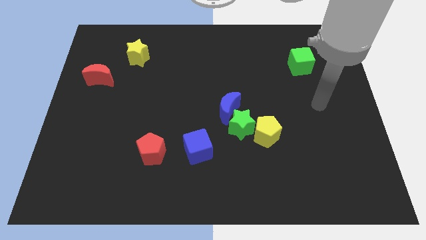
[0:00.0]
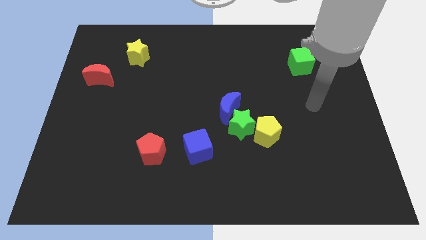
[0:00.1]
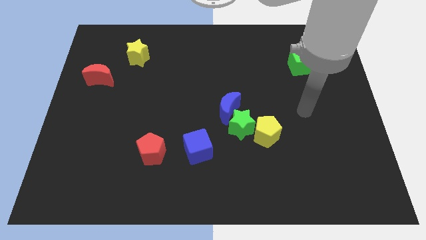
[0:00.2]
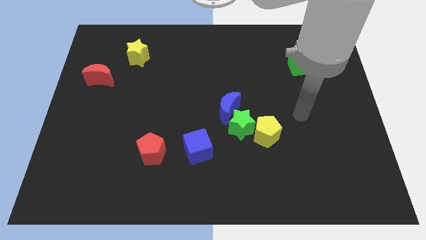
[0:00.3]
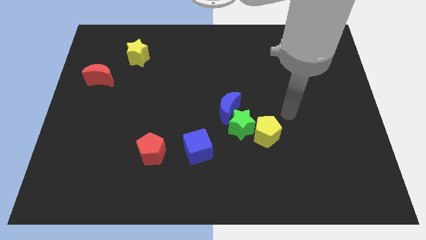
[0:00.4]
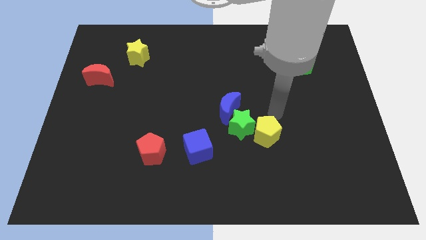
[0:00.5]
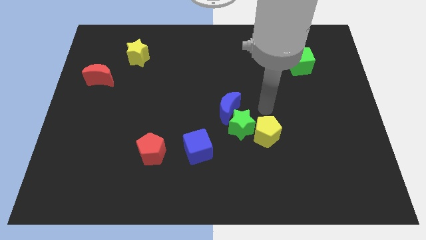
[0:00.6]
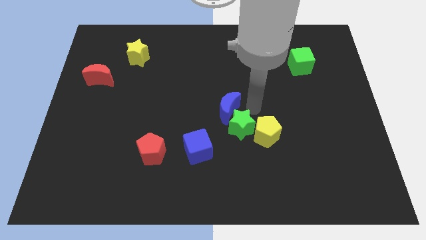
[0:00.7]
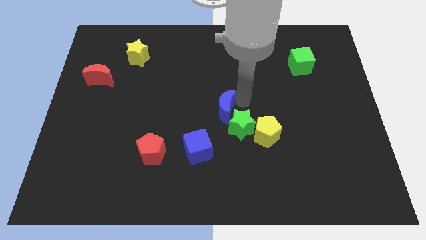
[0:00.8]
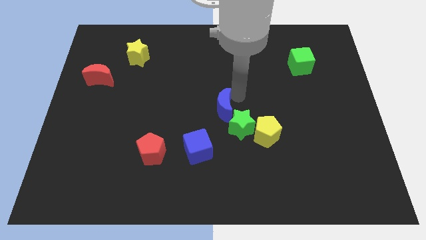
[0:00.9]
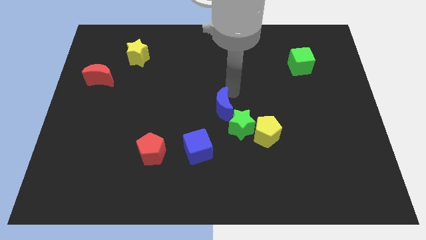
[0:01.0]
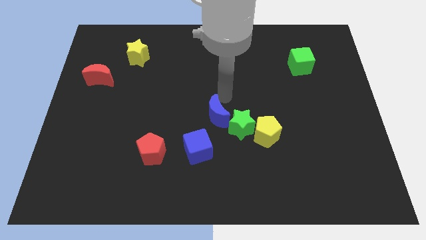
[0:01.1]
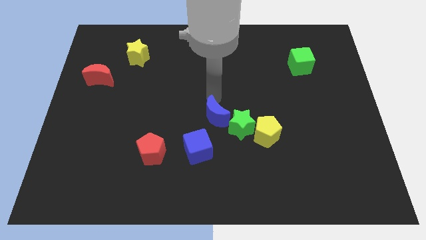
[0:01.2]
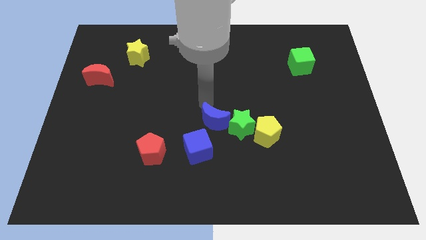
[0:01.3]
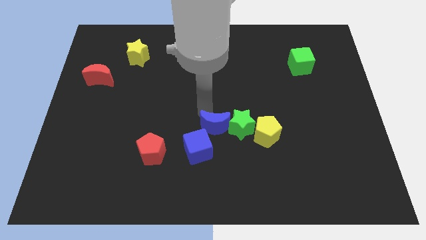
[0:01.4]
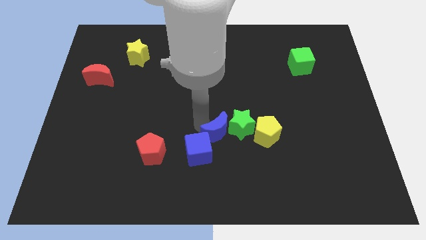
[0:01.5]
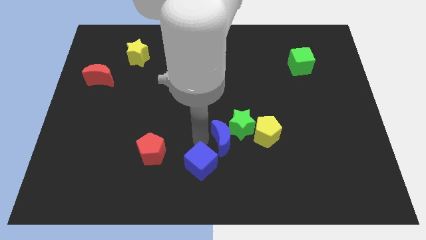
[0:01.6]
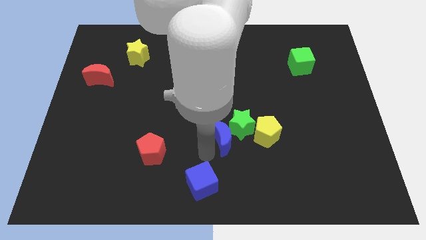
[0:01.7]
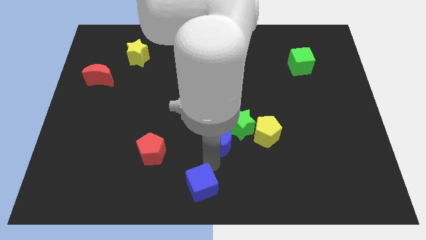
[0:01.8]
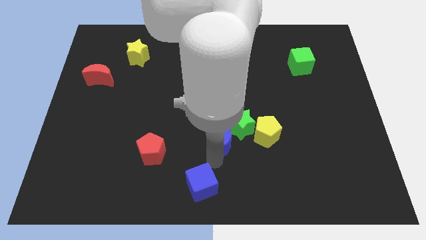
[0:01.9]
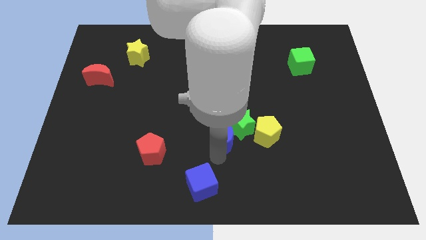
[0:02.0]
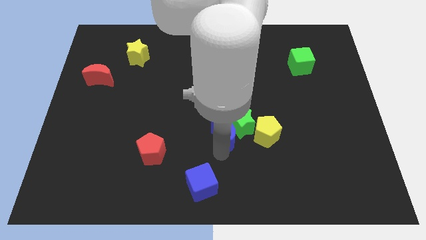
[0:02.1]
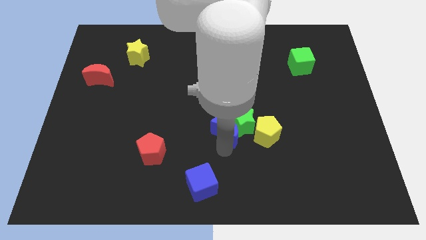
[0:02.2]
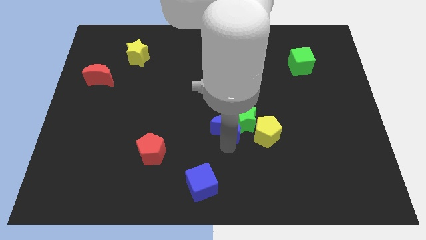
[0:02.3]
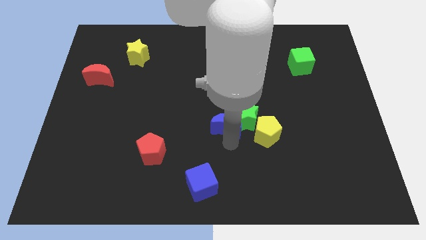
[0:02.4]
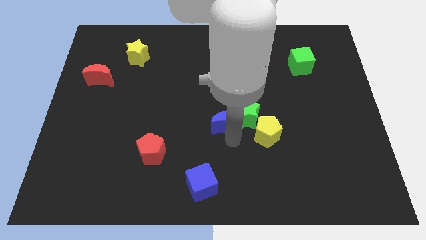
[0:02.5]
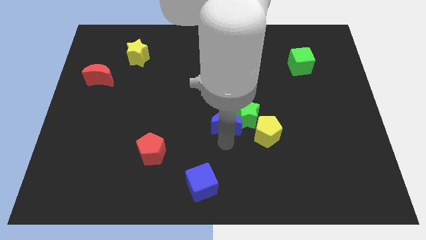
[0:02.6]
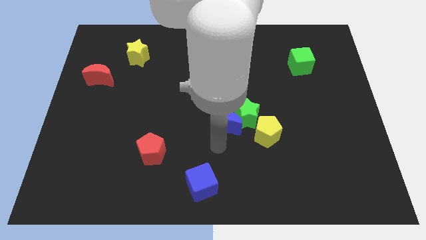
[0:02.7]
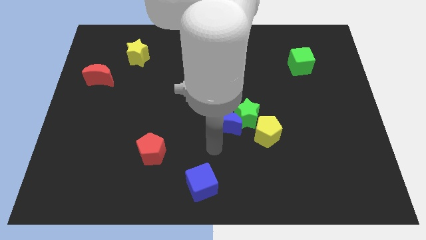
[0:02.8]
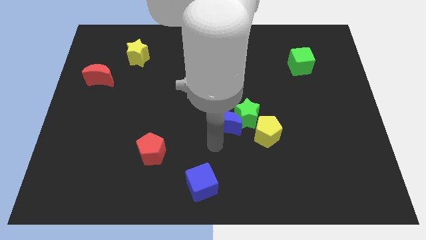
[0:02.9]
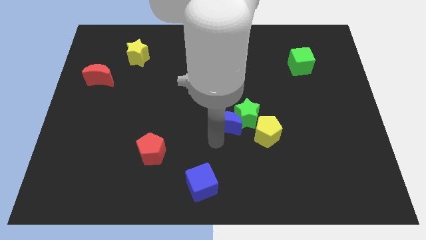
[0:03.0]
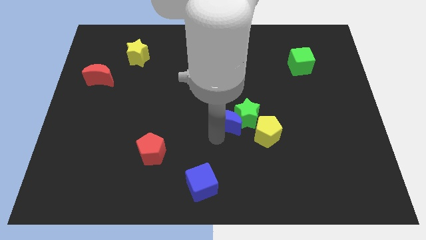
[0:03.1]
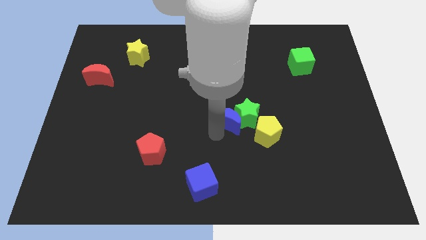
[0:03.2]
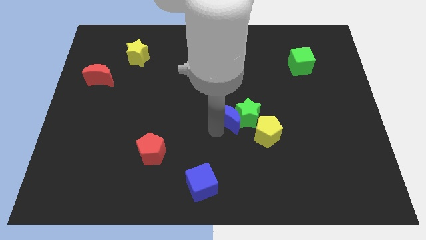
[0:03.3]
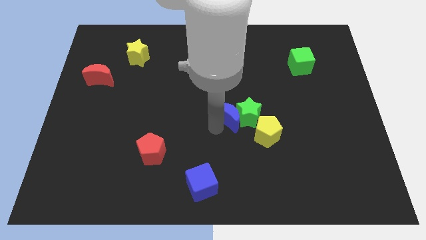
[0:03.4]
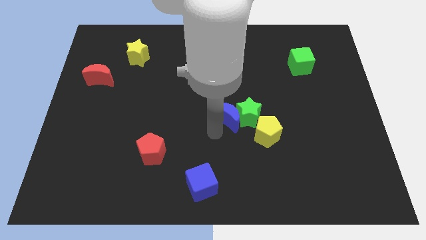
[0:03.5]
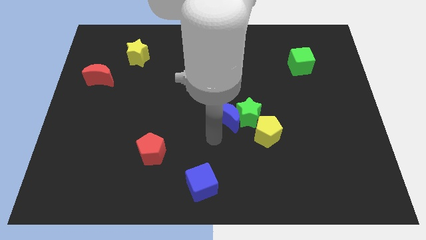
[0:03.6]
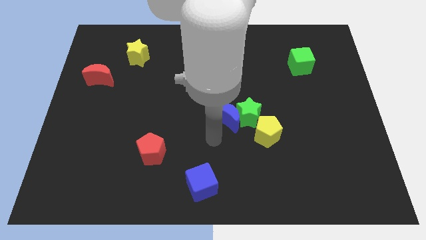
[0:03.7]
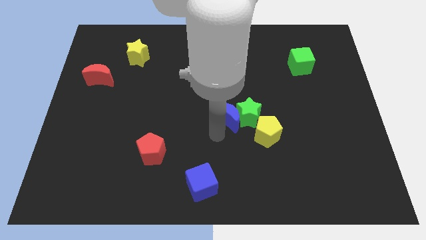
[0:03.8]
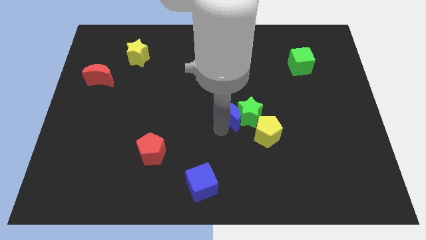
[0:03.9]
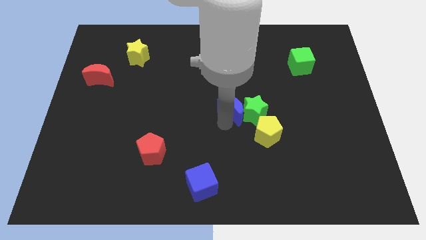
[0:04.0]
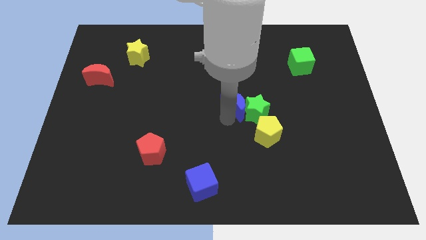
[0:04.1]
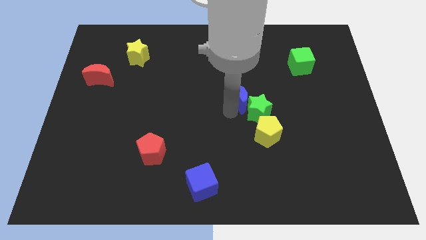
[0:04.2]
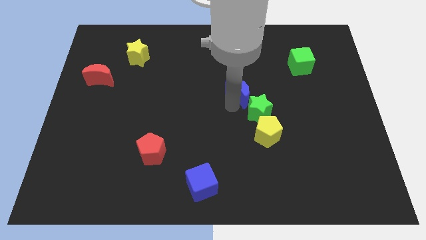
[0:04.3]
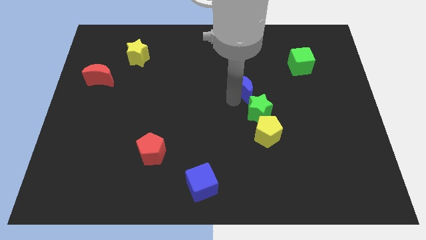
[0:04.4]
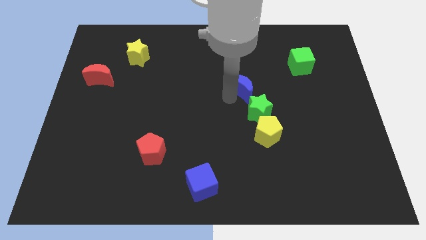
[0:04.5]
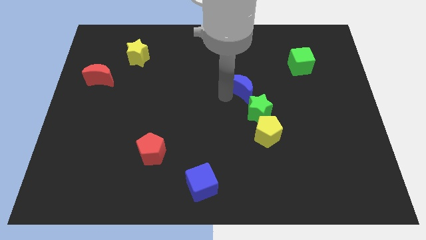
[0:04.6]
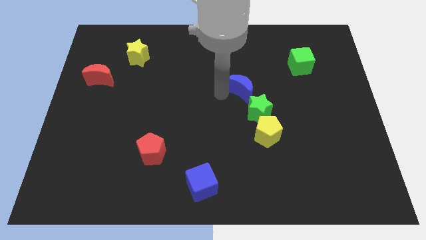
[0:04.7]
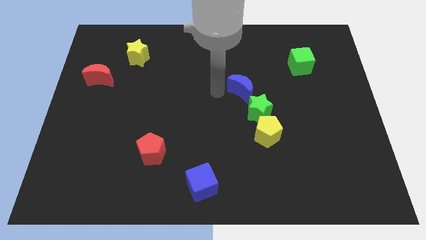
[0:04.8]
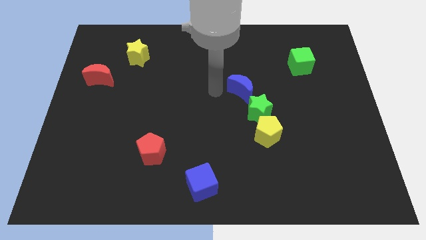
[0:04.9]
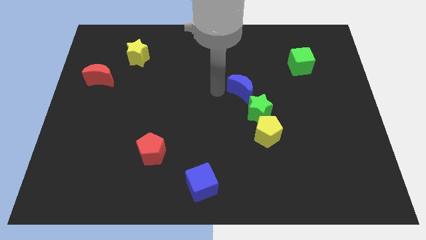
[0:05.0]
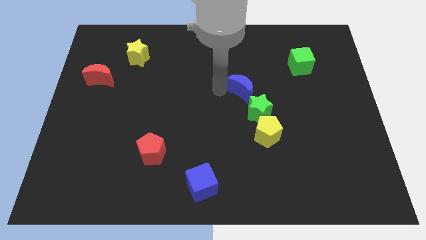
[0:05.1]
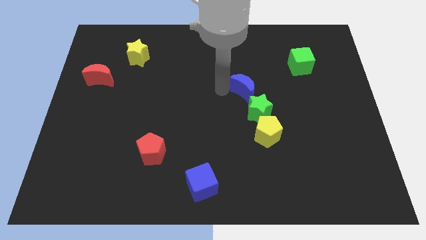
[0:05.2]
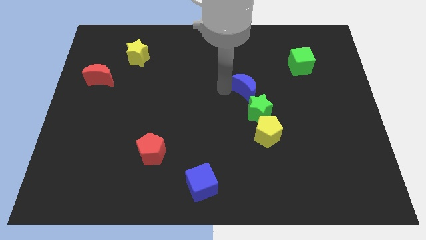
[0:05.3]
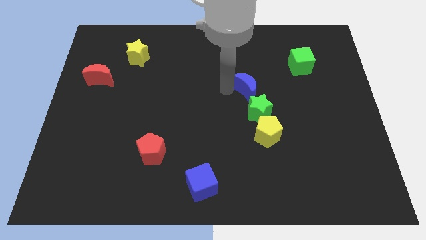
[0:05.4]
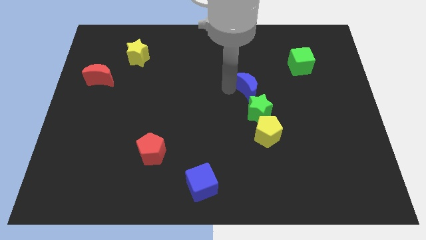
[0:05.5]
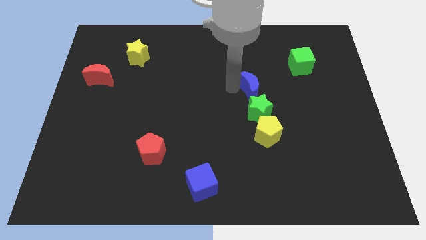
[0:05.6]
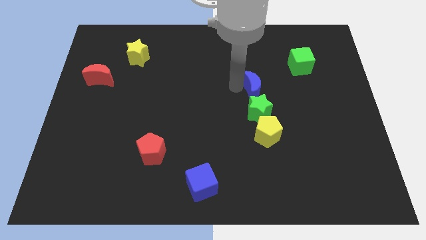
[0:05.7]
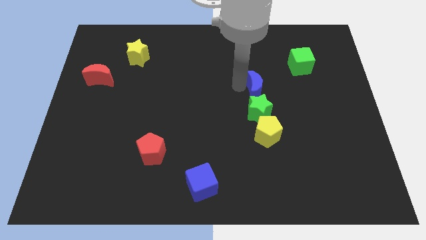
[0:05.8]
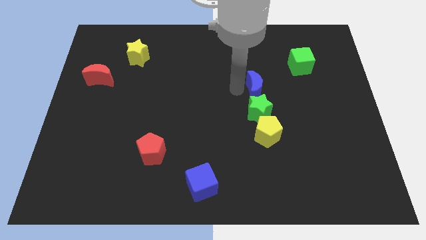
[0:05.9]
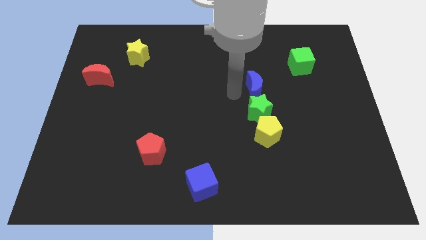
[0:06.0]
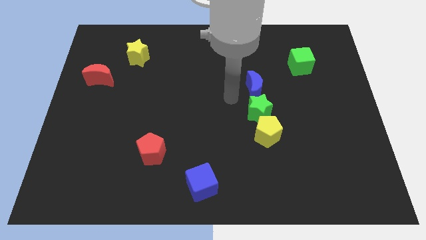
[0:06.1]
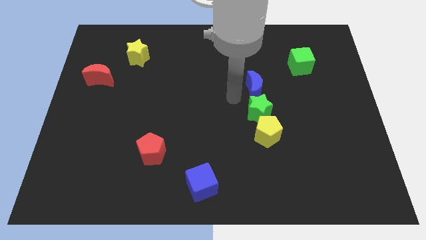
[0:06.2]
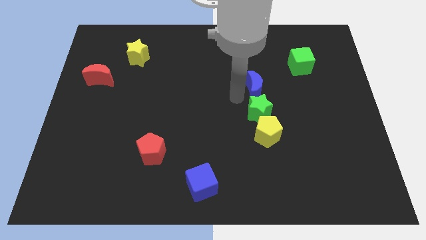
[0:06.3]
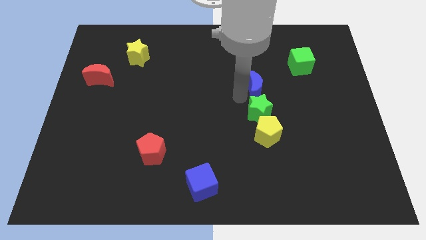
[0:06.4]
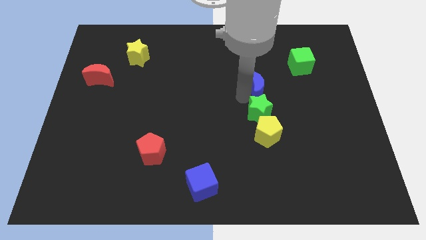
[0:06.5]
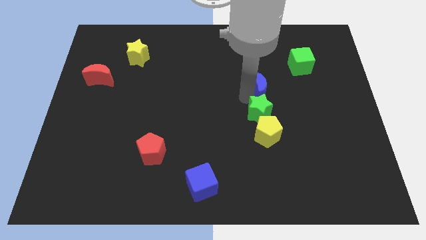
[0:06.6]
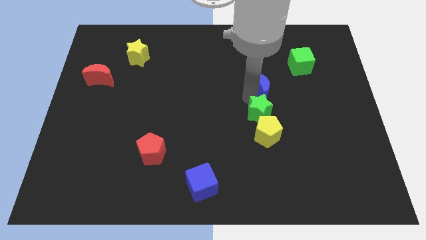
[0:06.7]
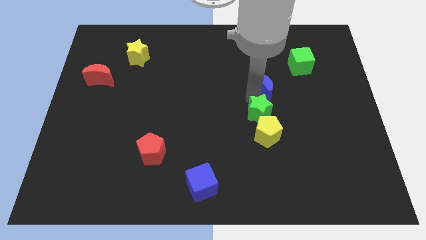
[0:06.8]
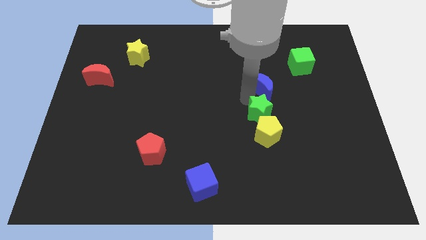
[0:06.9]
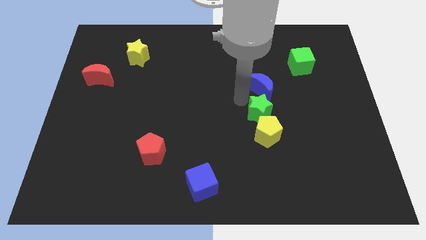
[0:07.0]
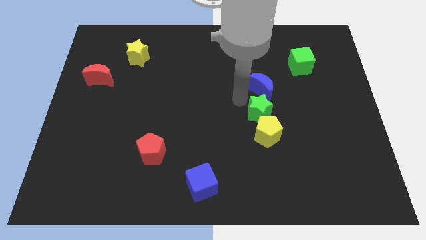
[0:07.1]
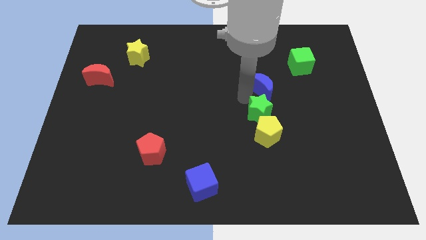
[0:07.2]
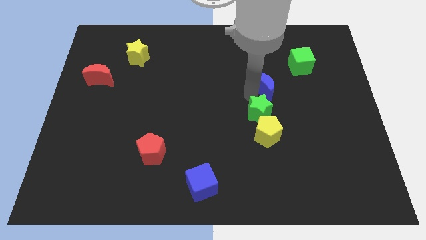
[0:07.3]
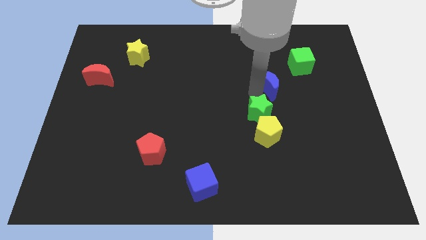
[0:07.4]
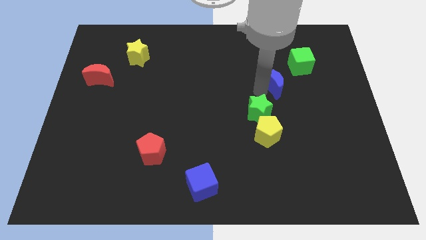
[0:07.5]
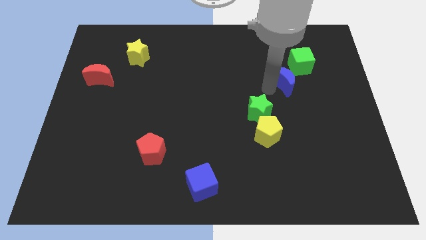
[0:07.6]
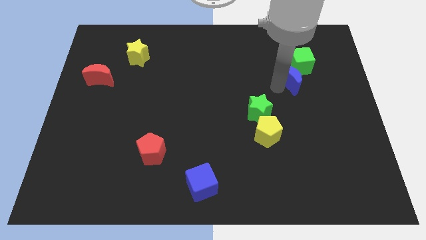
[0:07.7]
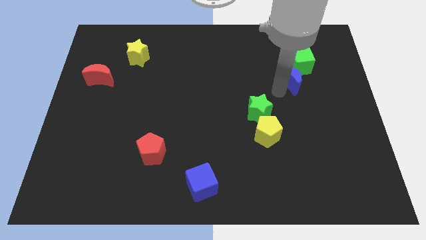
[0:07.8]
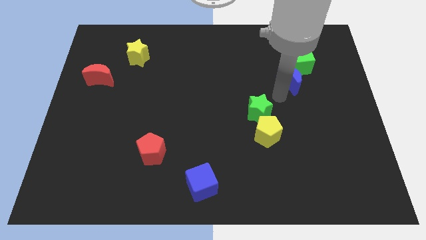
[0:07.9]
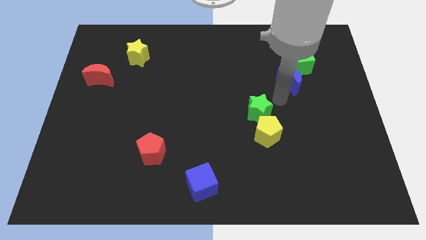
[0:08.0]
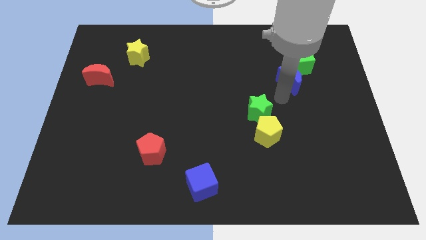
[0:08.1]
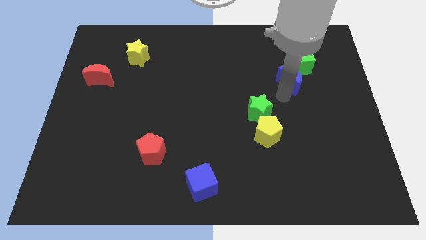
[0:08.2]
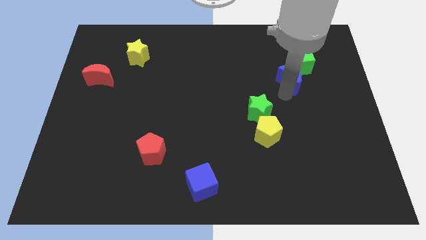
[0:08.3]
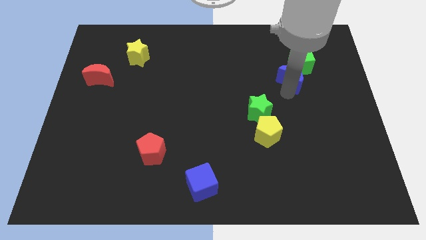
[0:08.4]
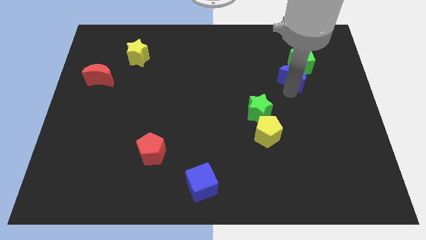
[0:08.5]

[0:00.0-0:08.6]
slide the blue moon close to the green cube
